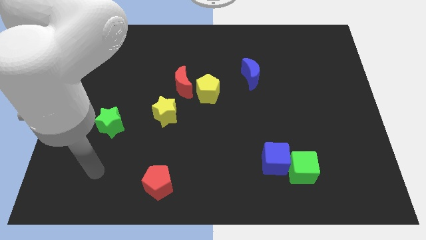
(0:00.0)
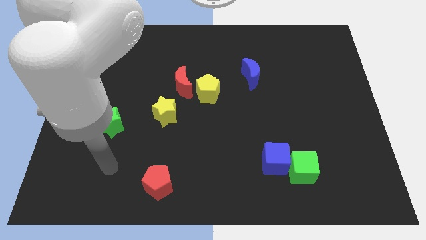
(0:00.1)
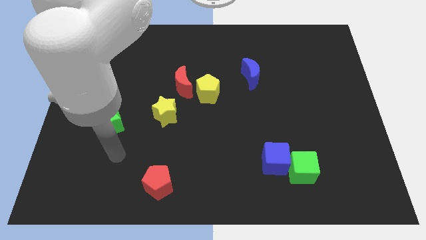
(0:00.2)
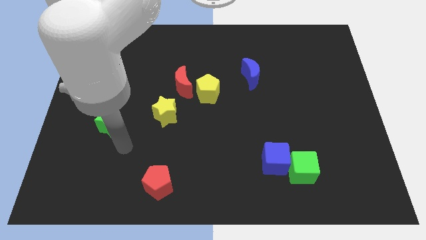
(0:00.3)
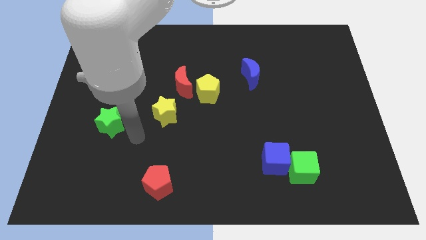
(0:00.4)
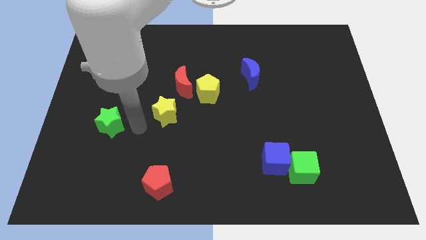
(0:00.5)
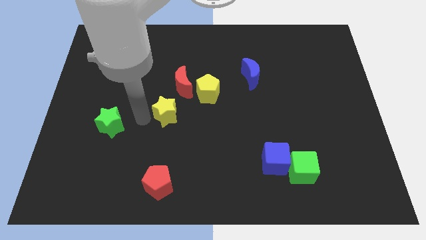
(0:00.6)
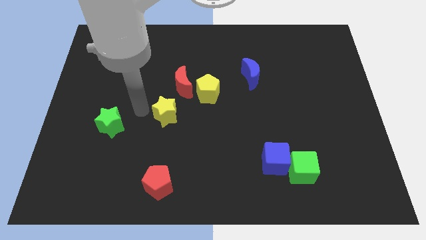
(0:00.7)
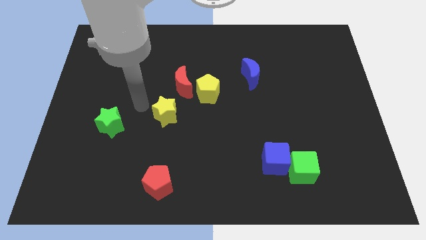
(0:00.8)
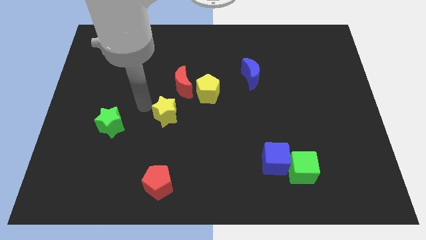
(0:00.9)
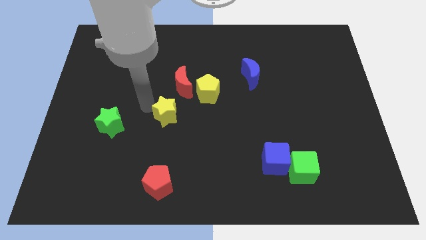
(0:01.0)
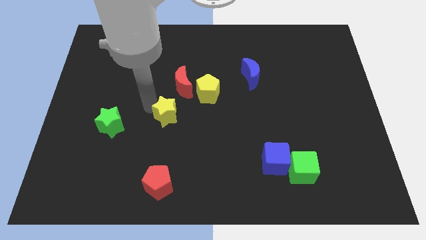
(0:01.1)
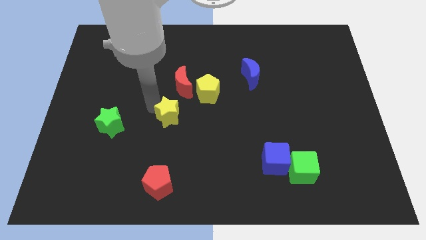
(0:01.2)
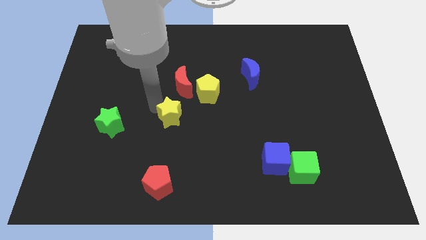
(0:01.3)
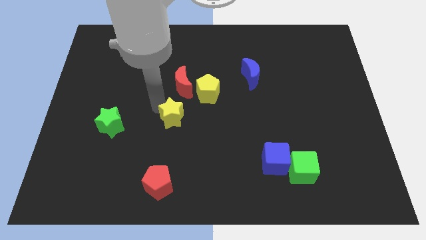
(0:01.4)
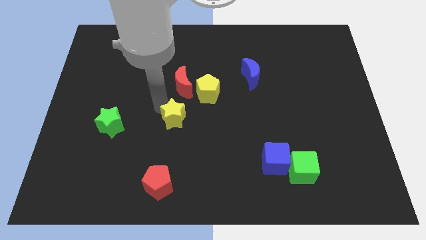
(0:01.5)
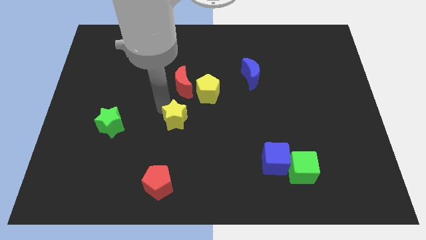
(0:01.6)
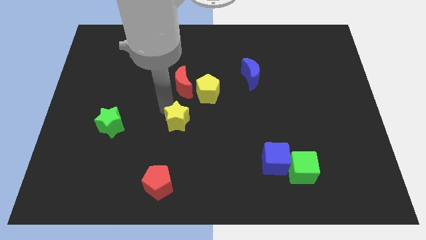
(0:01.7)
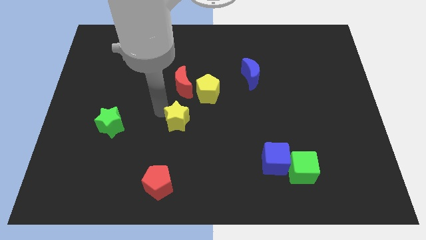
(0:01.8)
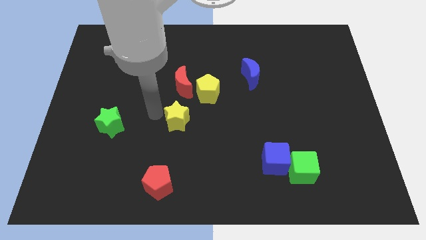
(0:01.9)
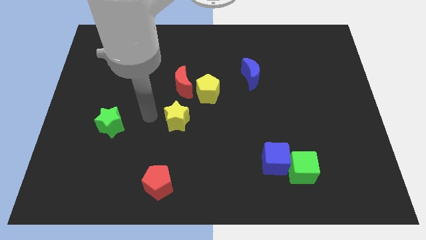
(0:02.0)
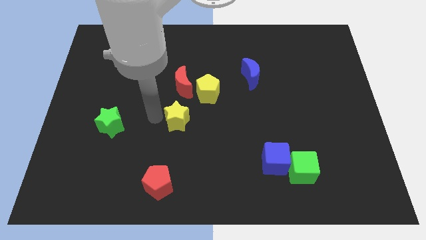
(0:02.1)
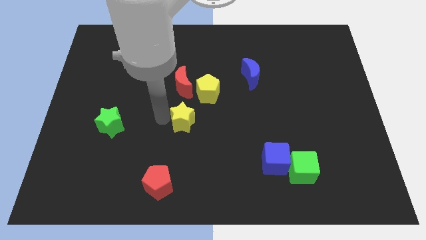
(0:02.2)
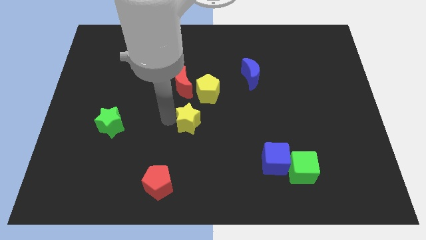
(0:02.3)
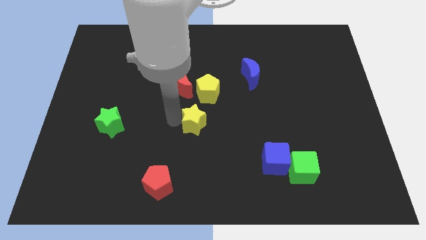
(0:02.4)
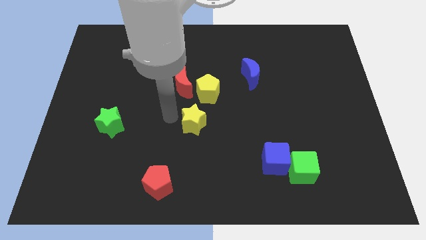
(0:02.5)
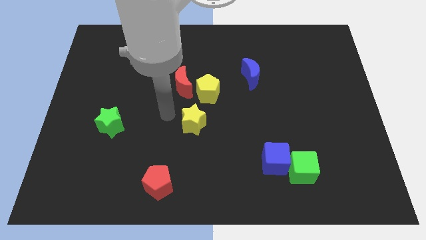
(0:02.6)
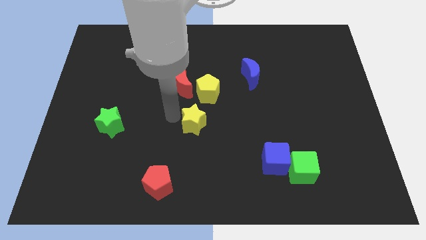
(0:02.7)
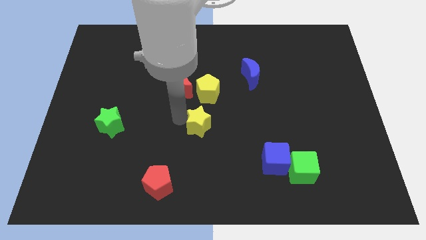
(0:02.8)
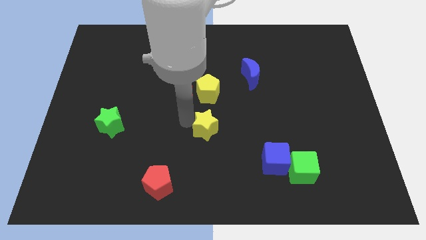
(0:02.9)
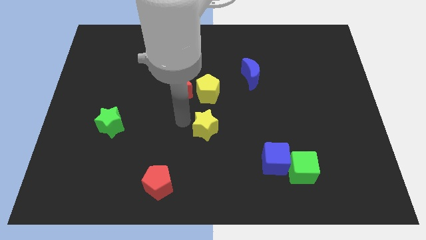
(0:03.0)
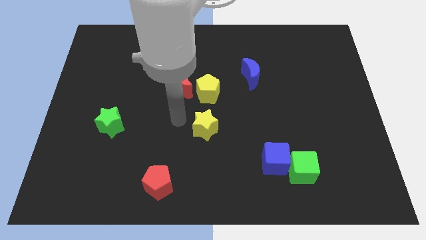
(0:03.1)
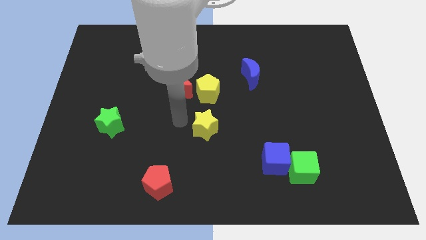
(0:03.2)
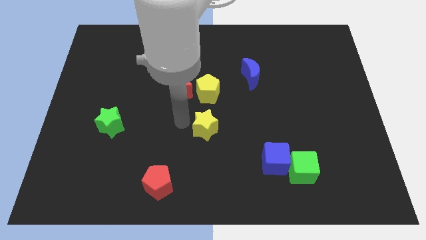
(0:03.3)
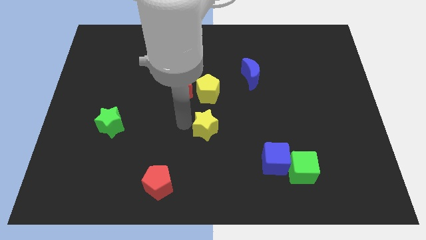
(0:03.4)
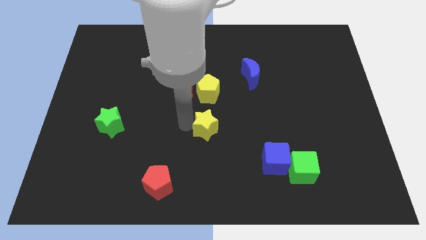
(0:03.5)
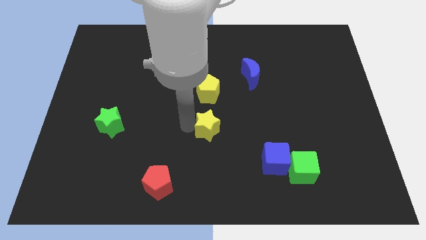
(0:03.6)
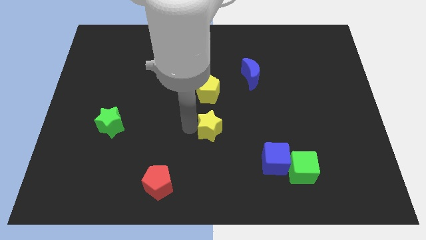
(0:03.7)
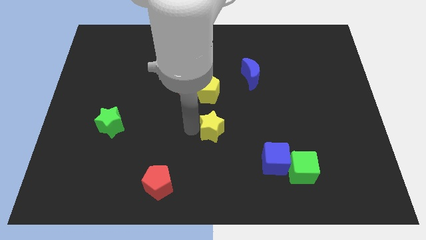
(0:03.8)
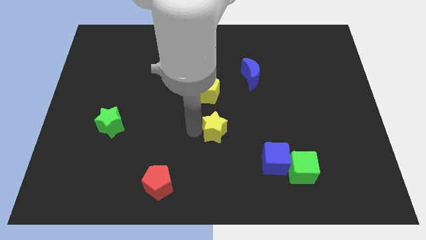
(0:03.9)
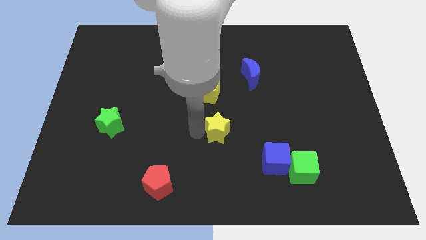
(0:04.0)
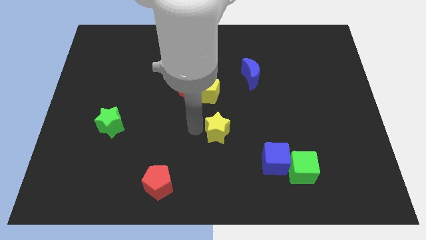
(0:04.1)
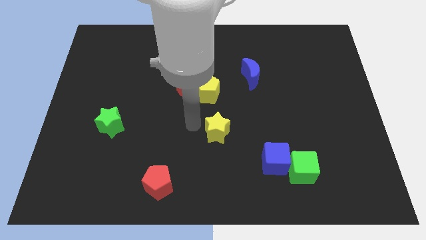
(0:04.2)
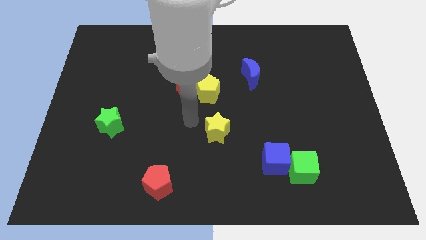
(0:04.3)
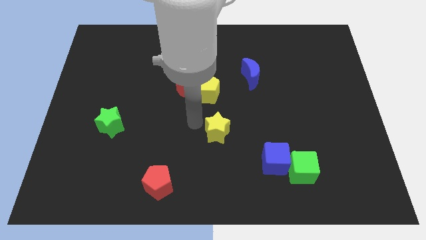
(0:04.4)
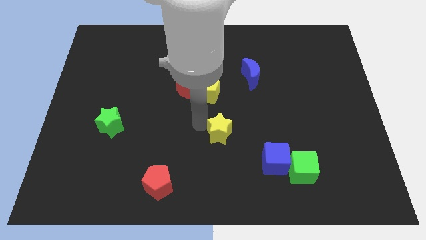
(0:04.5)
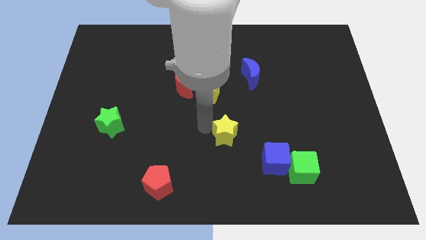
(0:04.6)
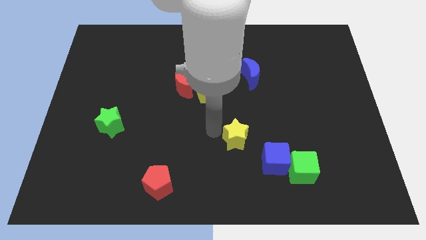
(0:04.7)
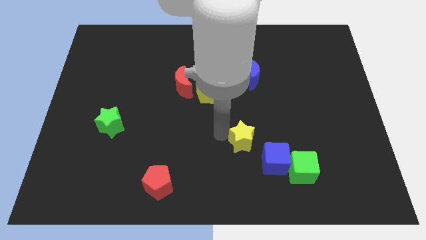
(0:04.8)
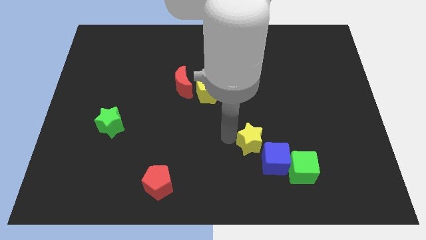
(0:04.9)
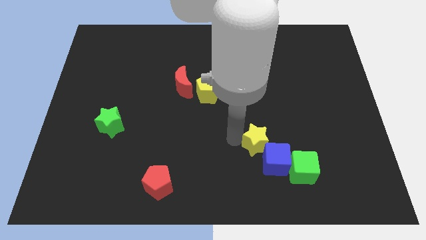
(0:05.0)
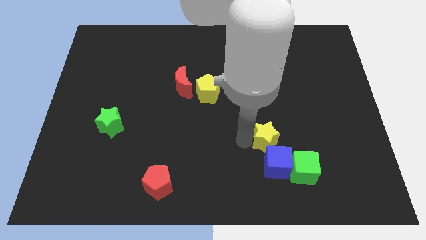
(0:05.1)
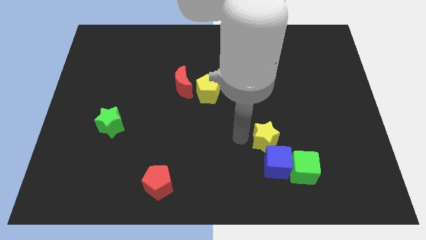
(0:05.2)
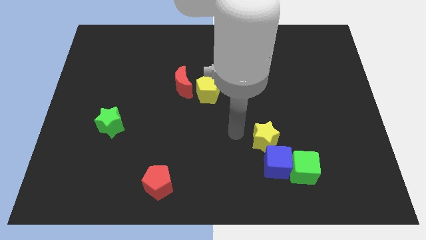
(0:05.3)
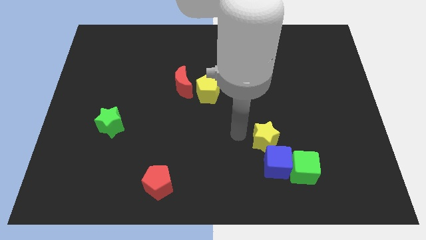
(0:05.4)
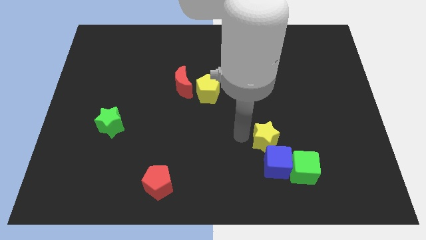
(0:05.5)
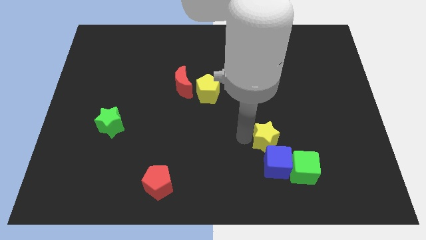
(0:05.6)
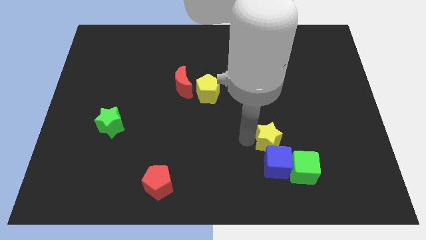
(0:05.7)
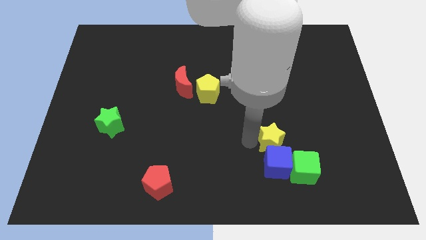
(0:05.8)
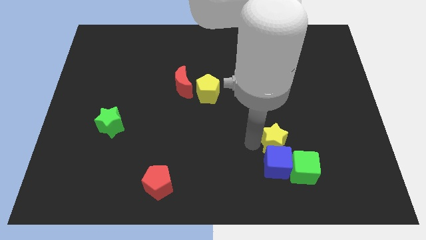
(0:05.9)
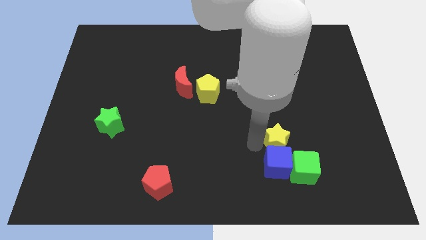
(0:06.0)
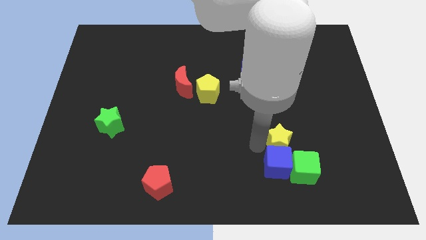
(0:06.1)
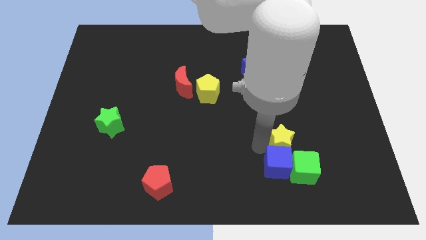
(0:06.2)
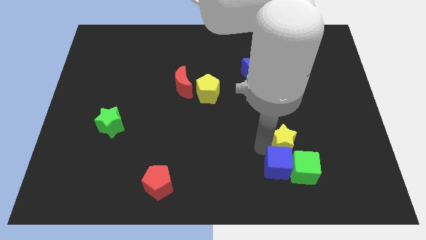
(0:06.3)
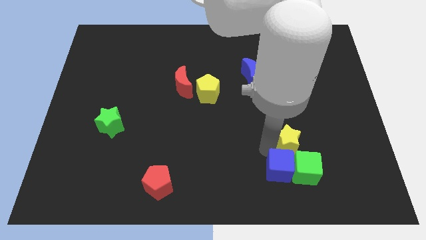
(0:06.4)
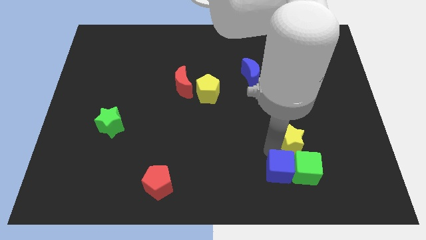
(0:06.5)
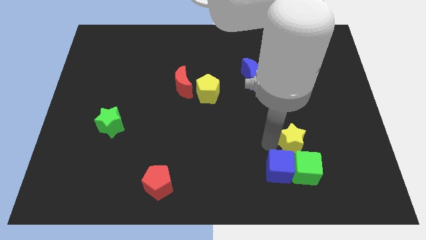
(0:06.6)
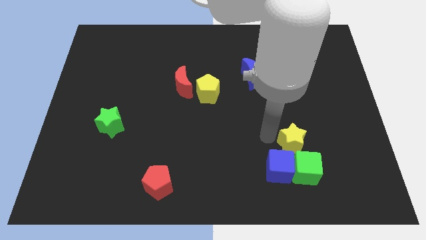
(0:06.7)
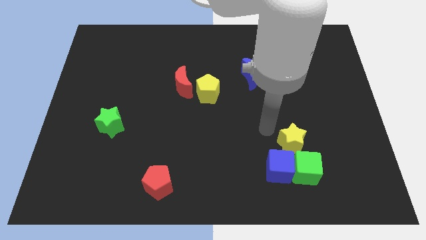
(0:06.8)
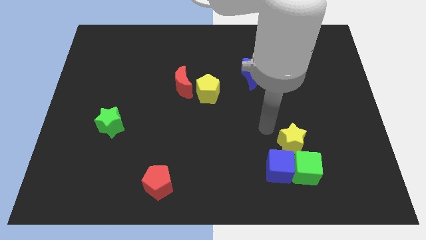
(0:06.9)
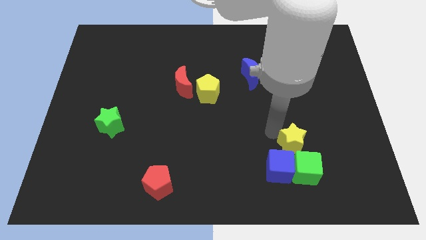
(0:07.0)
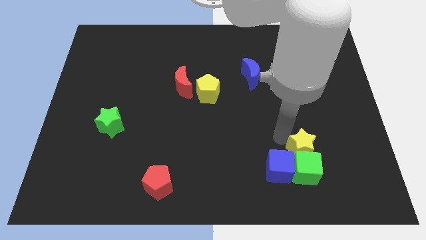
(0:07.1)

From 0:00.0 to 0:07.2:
push the yellow star to the right side of the blue cube

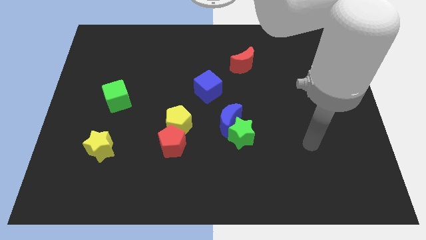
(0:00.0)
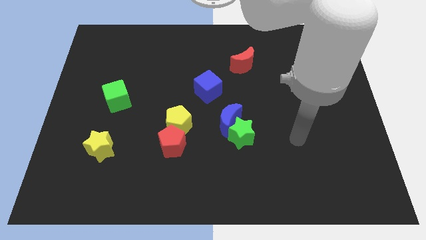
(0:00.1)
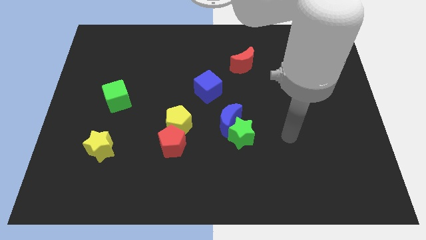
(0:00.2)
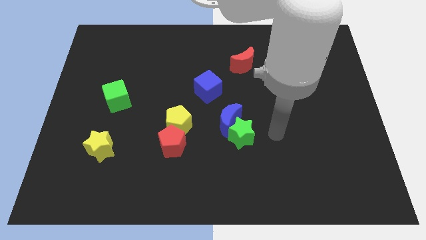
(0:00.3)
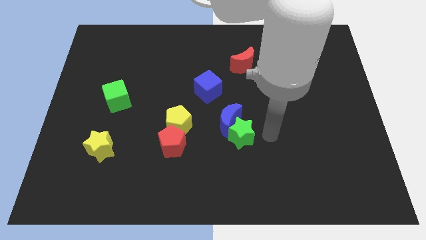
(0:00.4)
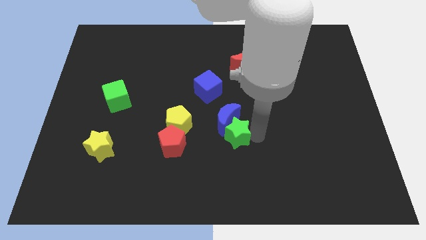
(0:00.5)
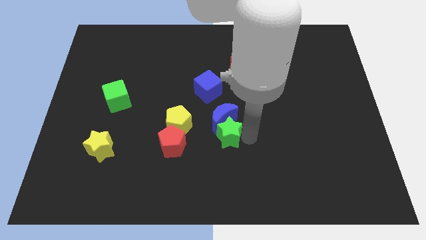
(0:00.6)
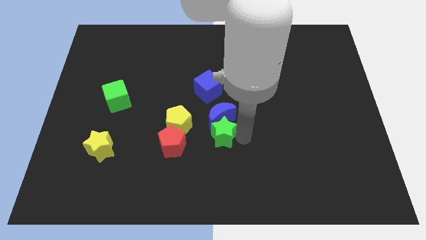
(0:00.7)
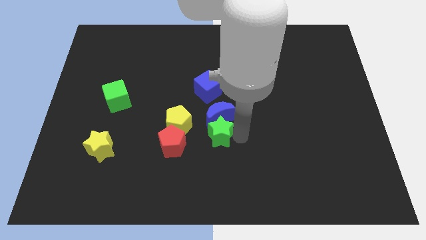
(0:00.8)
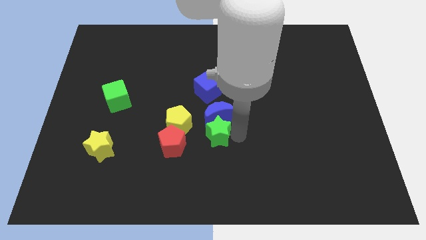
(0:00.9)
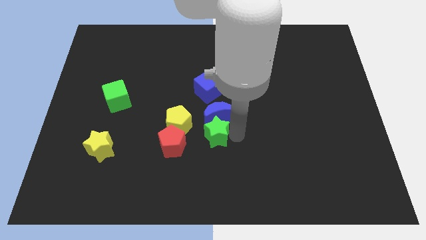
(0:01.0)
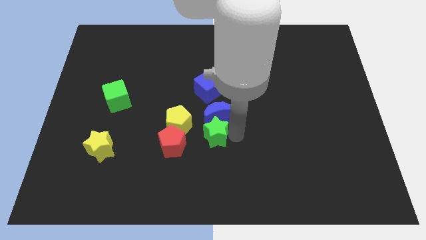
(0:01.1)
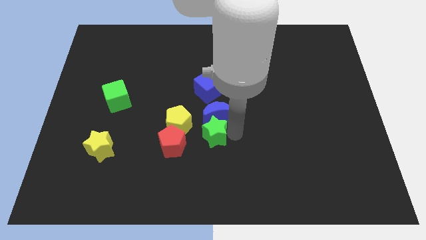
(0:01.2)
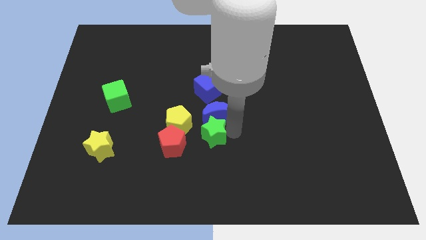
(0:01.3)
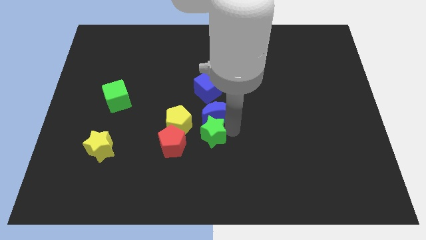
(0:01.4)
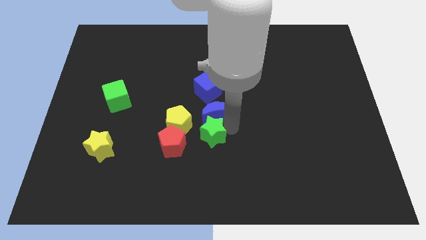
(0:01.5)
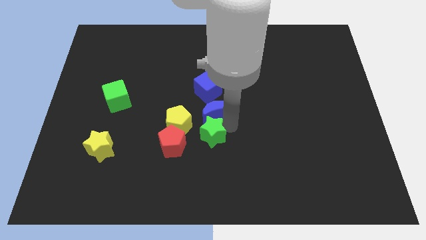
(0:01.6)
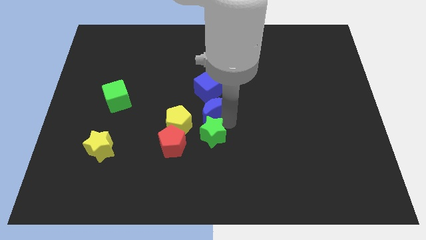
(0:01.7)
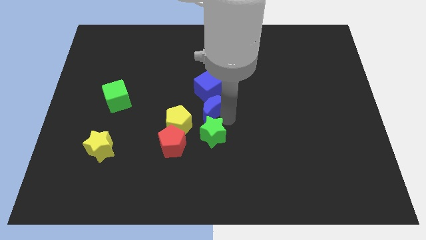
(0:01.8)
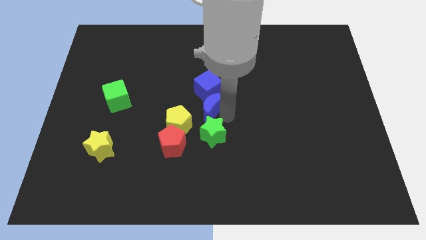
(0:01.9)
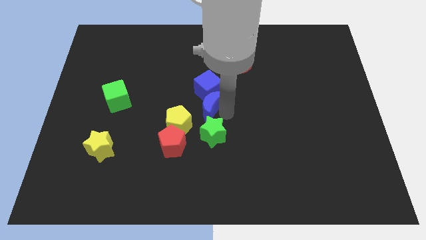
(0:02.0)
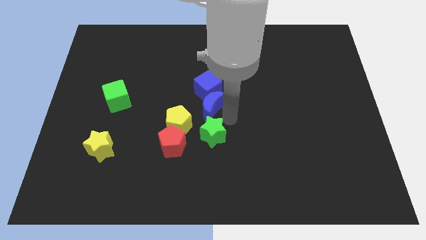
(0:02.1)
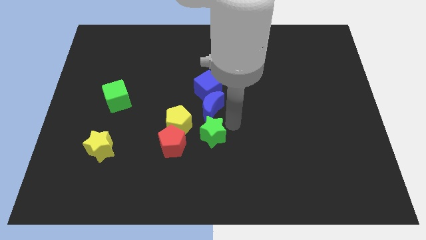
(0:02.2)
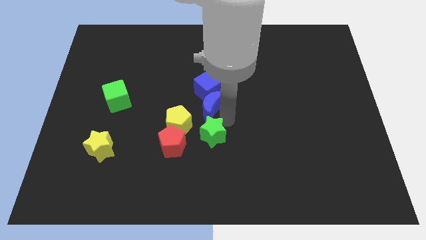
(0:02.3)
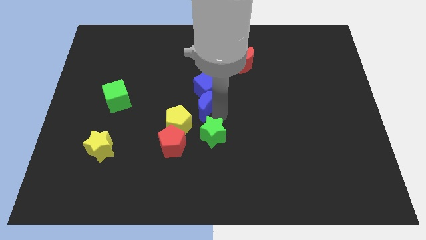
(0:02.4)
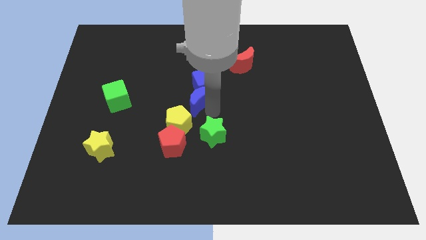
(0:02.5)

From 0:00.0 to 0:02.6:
slide the blue moon above the yellow pentagon
